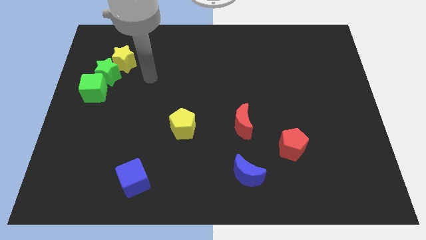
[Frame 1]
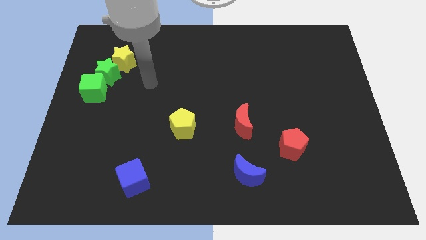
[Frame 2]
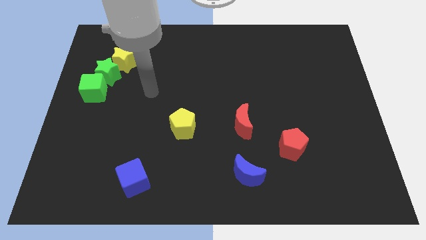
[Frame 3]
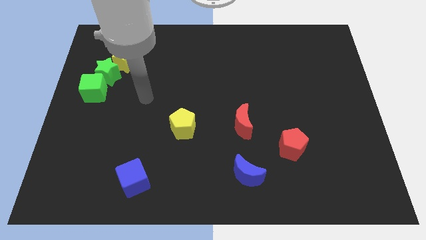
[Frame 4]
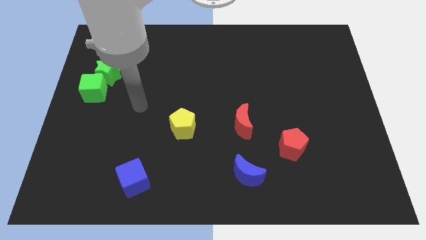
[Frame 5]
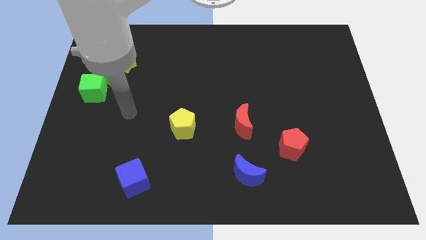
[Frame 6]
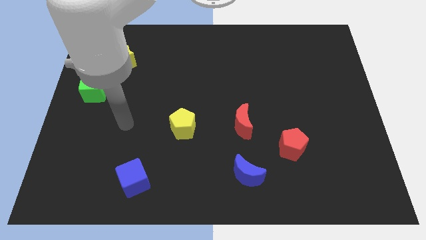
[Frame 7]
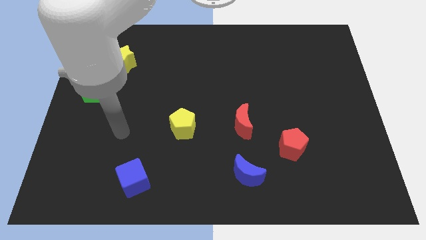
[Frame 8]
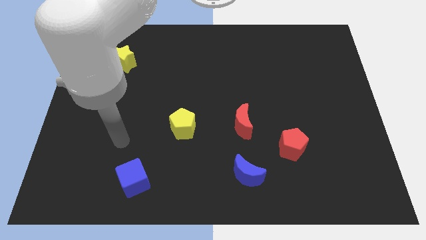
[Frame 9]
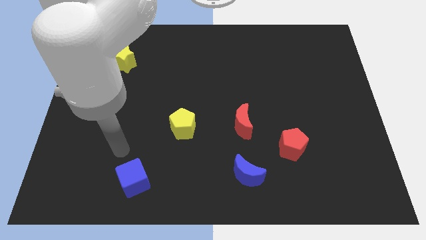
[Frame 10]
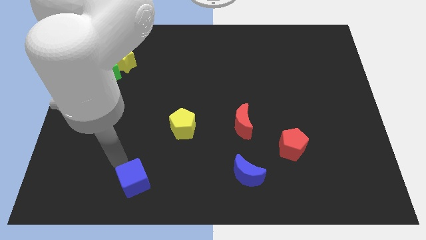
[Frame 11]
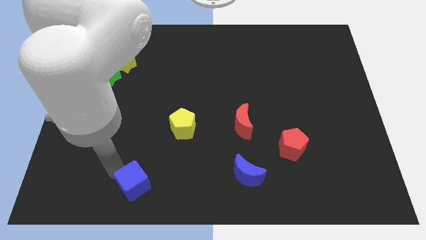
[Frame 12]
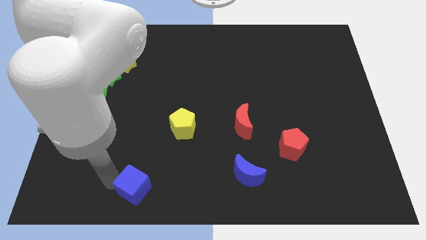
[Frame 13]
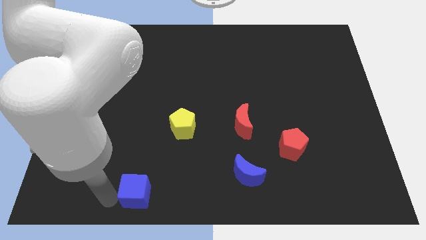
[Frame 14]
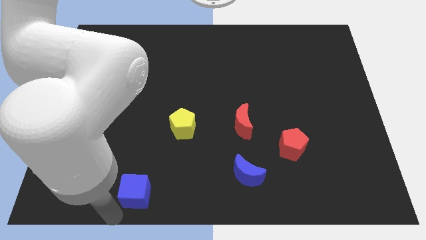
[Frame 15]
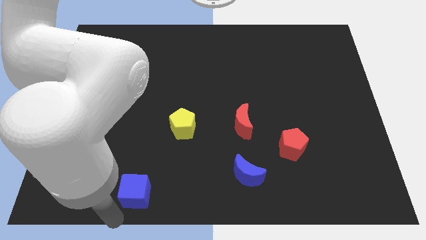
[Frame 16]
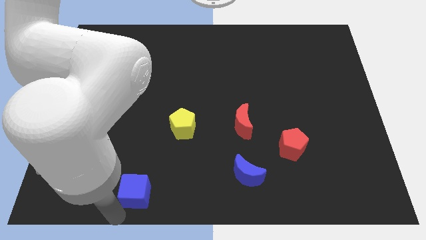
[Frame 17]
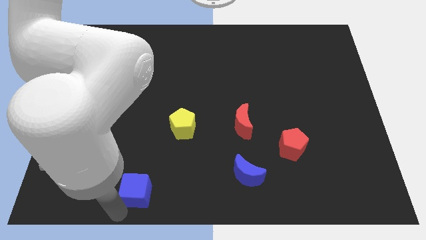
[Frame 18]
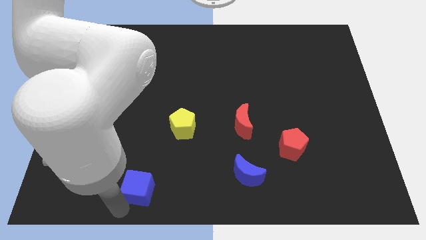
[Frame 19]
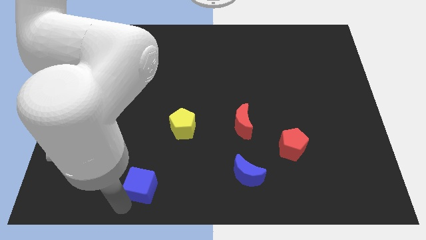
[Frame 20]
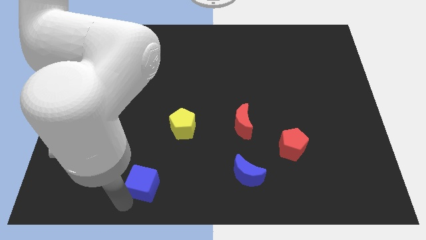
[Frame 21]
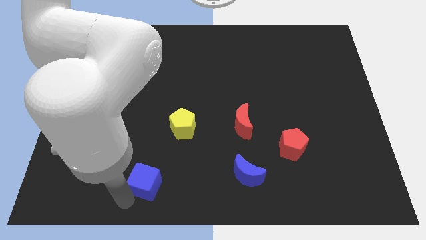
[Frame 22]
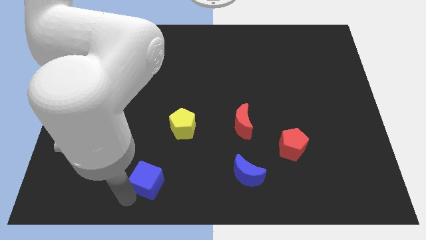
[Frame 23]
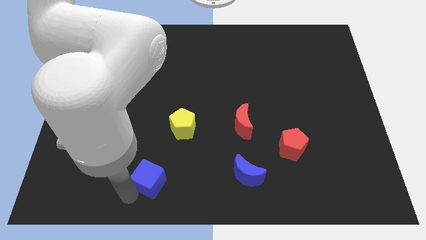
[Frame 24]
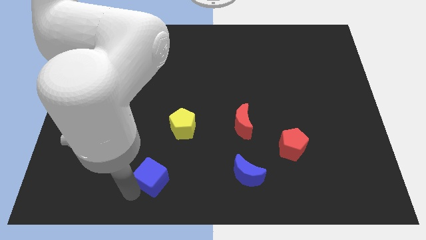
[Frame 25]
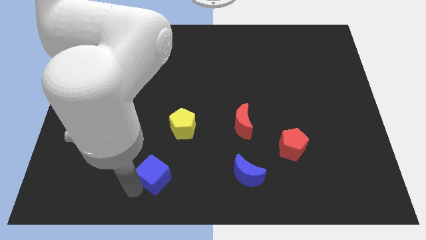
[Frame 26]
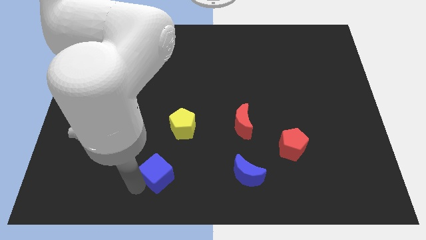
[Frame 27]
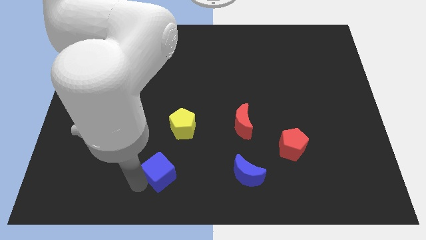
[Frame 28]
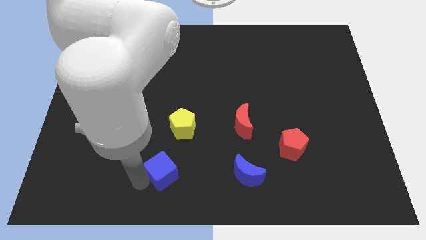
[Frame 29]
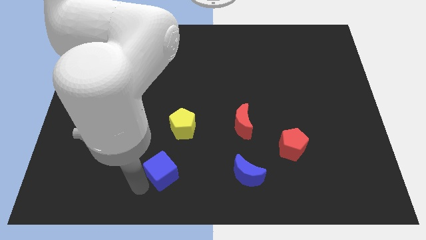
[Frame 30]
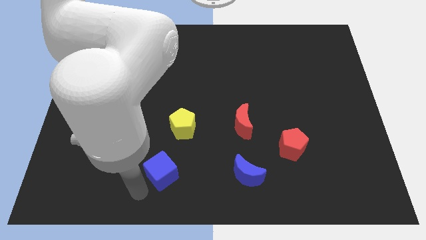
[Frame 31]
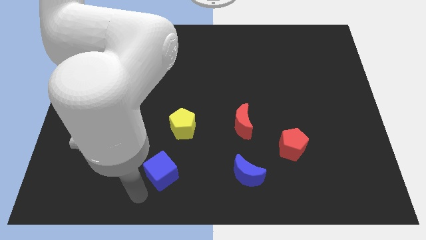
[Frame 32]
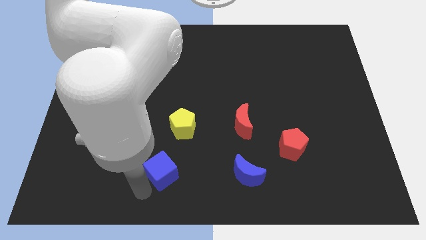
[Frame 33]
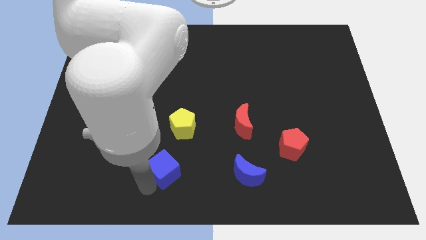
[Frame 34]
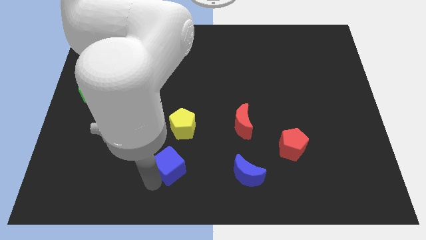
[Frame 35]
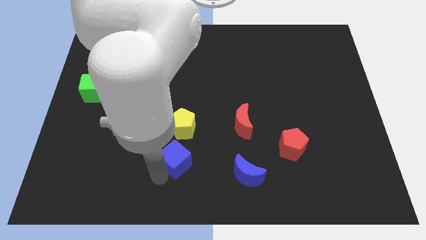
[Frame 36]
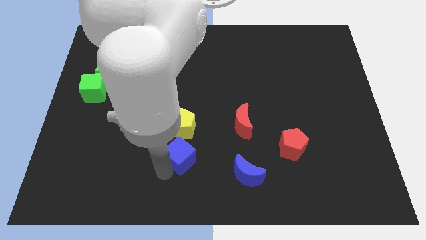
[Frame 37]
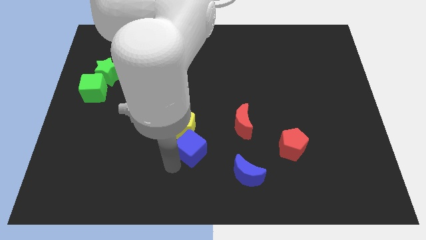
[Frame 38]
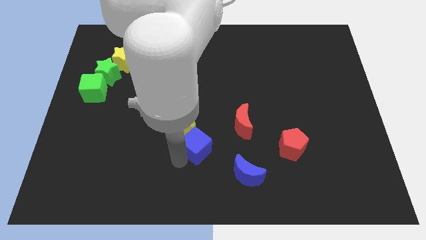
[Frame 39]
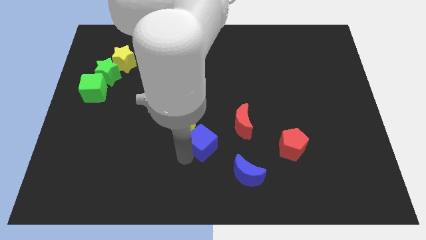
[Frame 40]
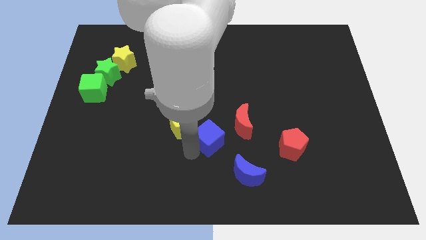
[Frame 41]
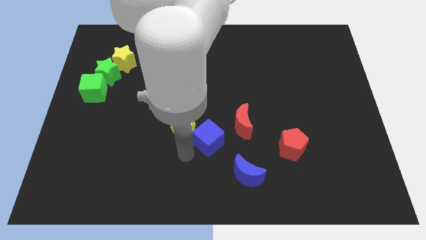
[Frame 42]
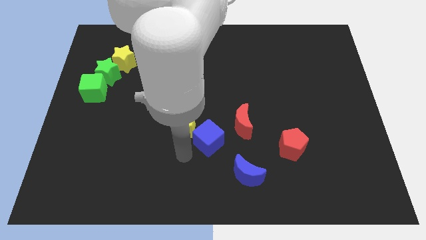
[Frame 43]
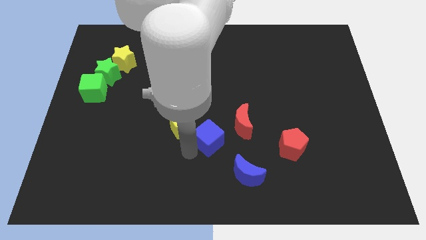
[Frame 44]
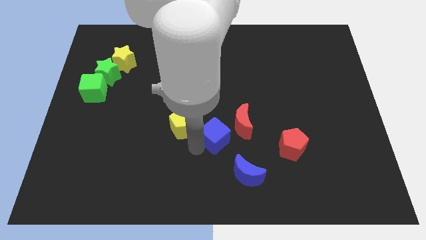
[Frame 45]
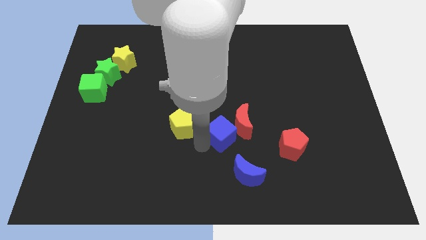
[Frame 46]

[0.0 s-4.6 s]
put the blue cube close to the red moon

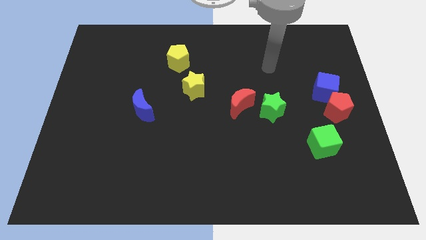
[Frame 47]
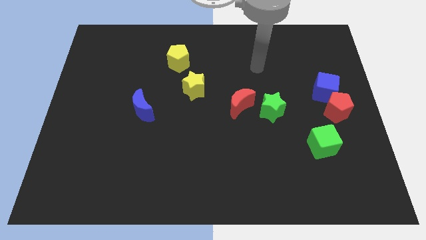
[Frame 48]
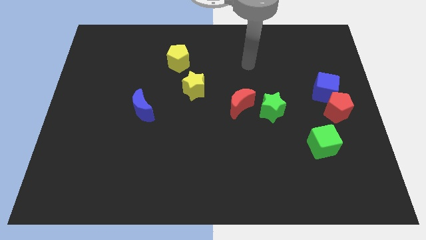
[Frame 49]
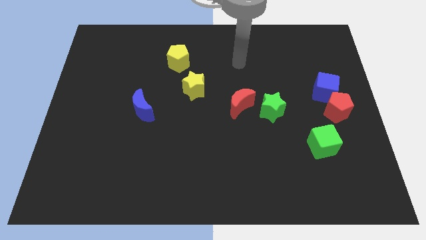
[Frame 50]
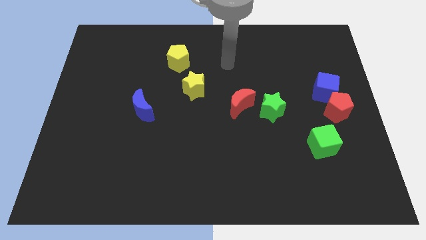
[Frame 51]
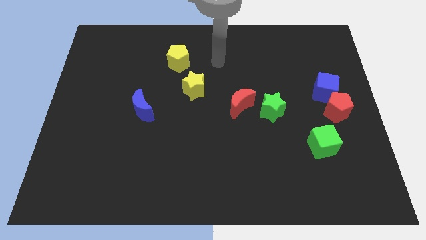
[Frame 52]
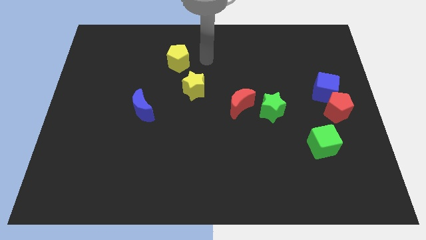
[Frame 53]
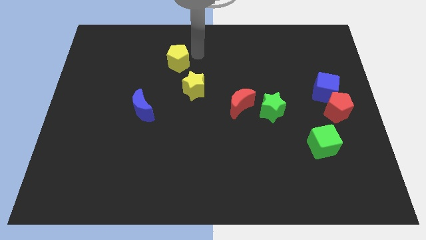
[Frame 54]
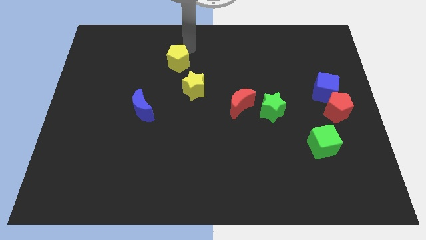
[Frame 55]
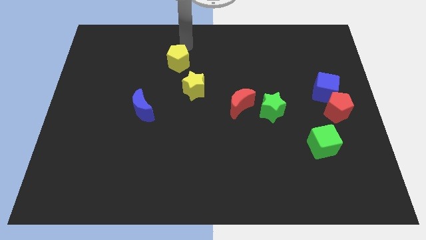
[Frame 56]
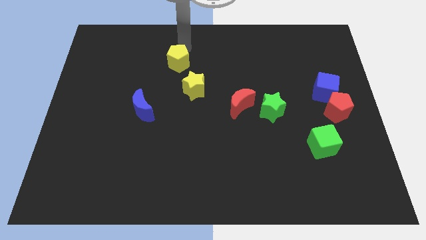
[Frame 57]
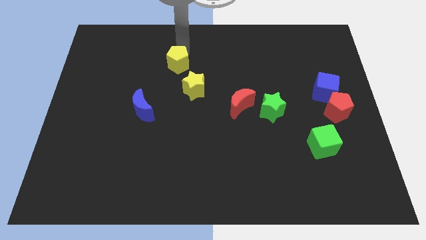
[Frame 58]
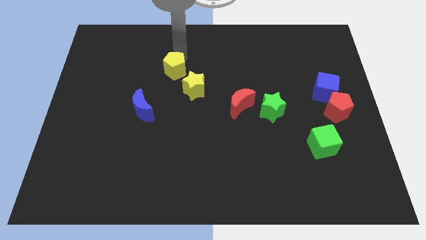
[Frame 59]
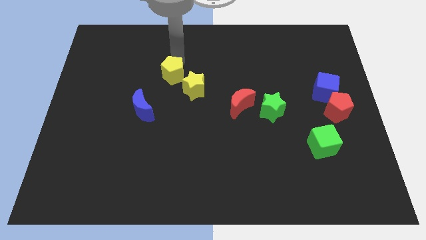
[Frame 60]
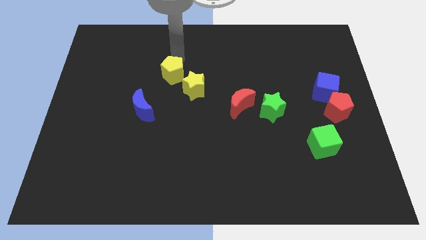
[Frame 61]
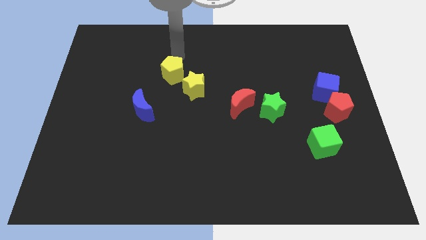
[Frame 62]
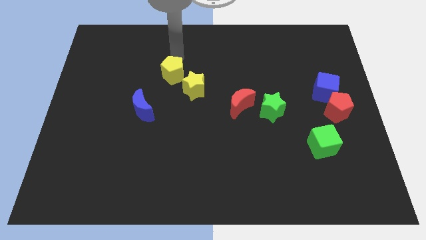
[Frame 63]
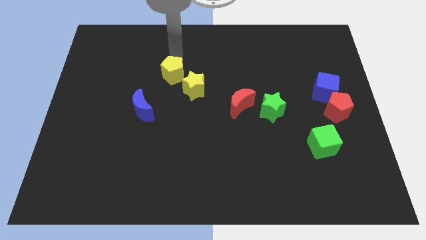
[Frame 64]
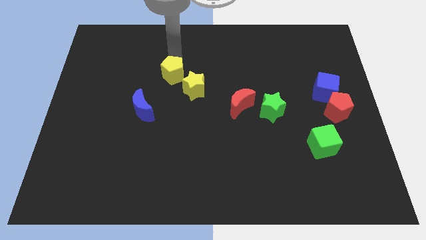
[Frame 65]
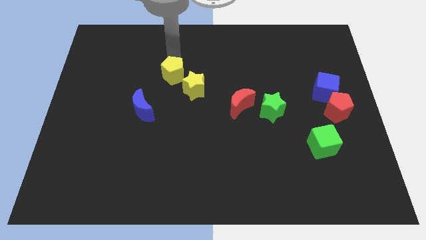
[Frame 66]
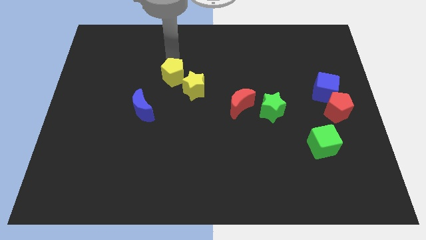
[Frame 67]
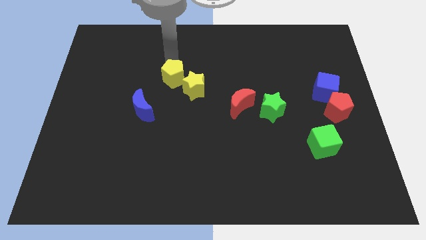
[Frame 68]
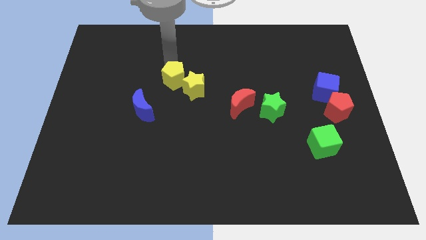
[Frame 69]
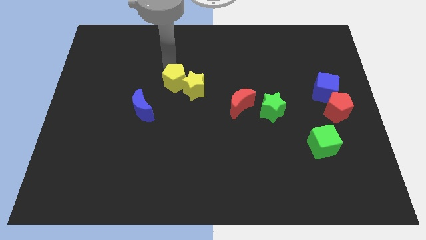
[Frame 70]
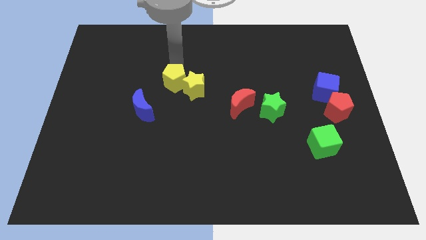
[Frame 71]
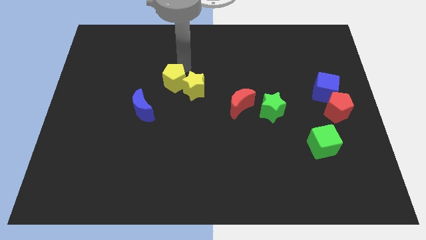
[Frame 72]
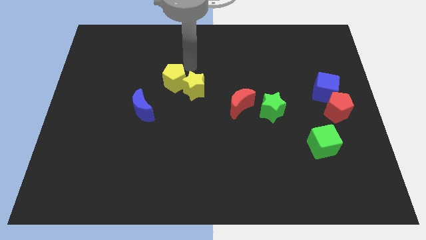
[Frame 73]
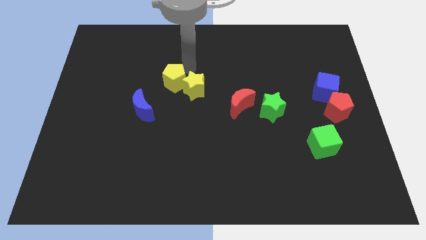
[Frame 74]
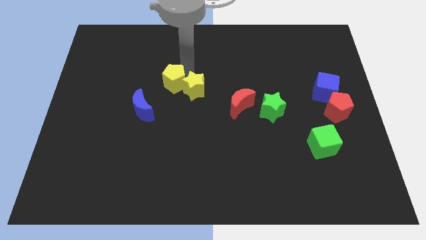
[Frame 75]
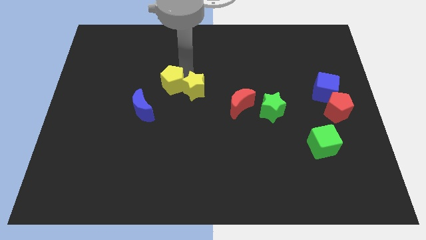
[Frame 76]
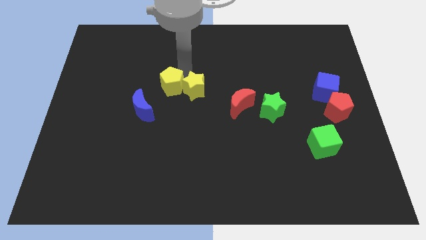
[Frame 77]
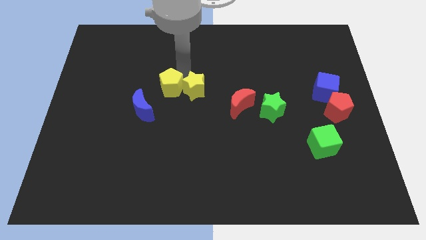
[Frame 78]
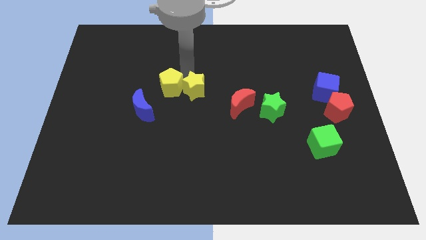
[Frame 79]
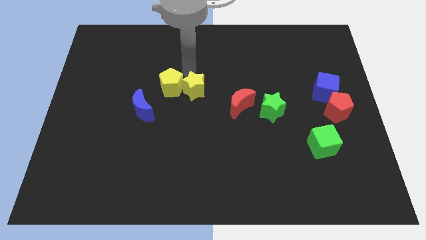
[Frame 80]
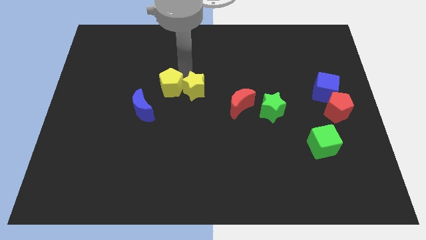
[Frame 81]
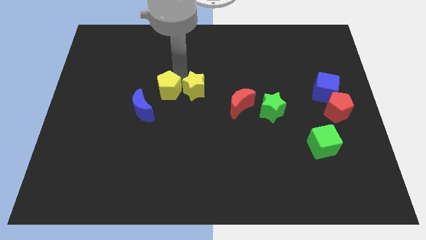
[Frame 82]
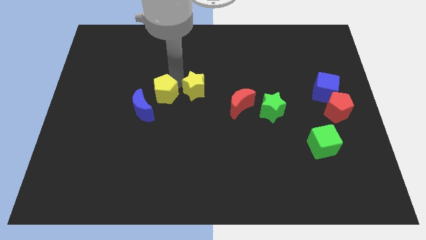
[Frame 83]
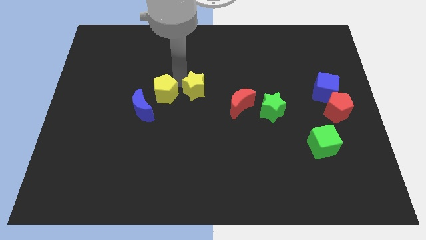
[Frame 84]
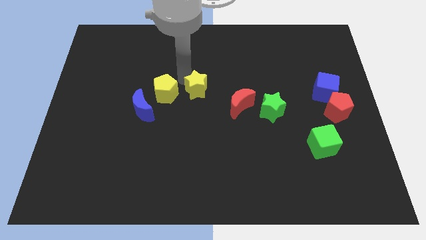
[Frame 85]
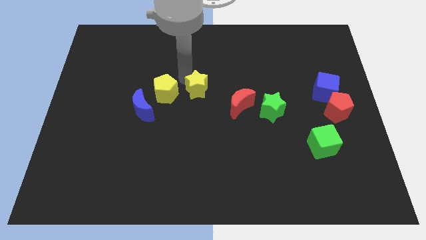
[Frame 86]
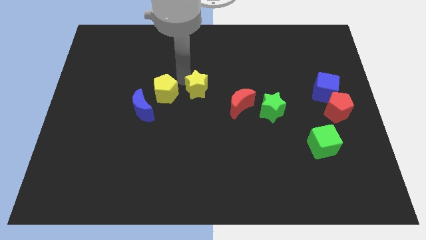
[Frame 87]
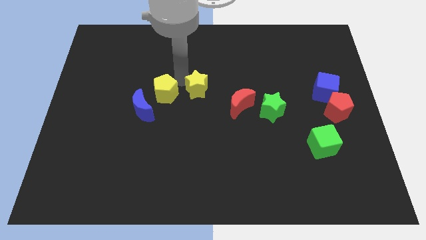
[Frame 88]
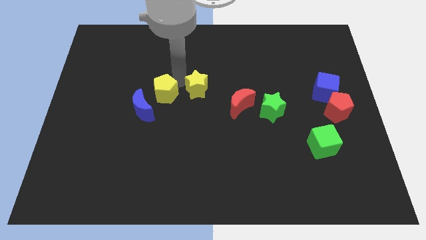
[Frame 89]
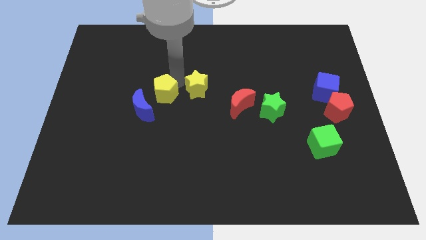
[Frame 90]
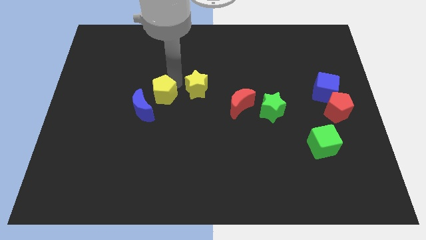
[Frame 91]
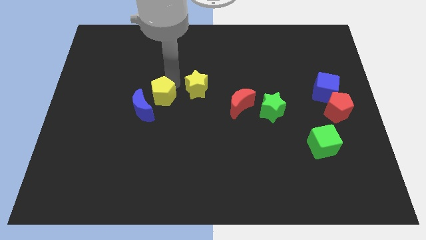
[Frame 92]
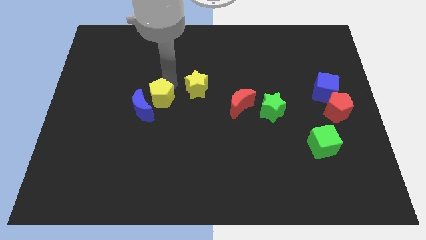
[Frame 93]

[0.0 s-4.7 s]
put the yellow pentagon close to the blue moon
